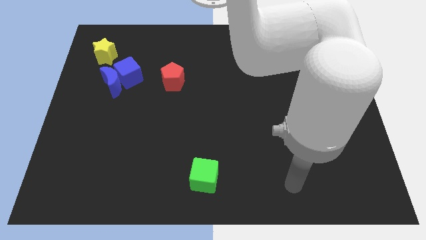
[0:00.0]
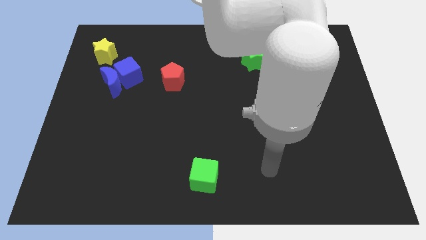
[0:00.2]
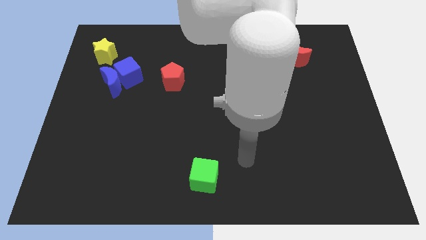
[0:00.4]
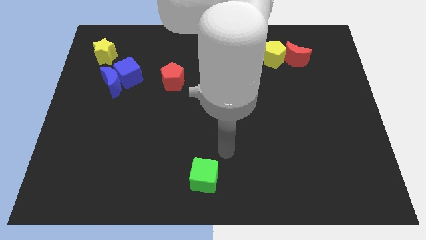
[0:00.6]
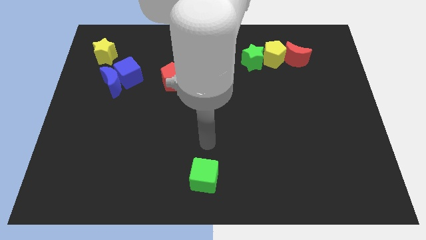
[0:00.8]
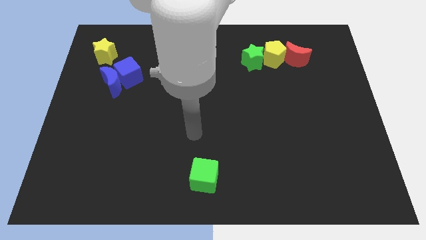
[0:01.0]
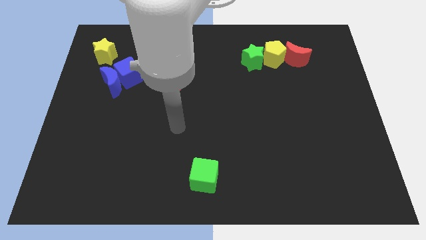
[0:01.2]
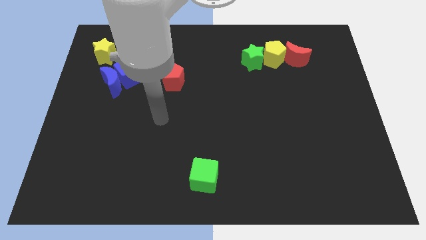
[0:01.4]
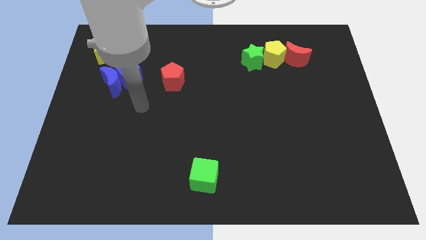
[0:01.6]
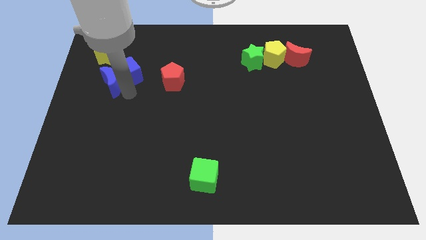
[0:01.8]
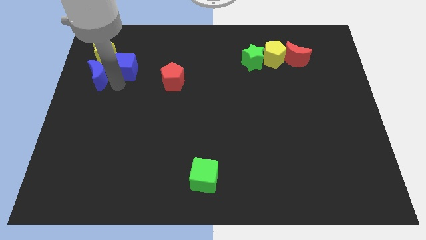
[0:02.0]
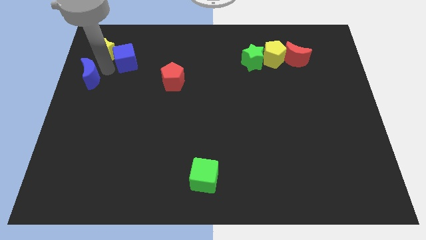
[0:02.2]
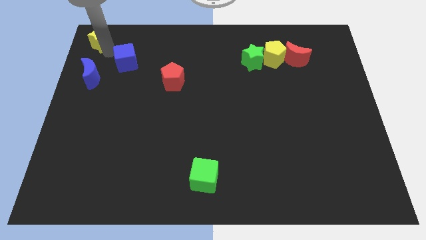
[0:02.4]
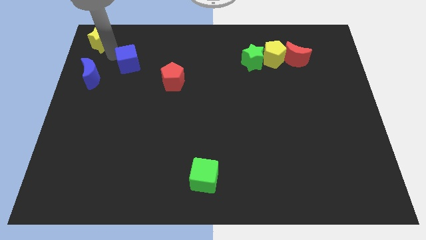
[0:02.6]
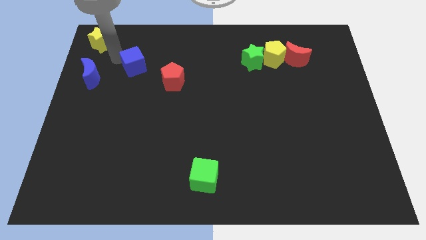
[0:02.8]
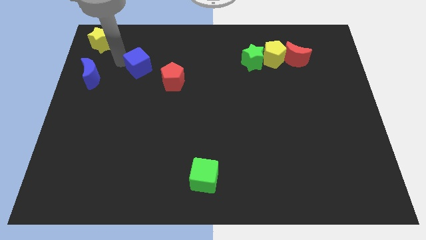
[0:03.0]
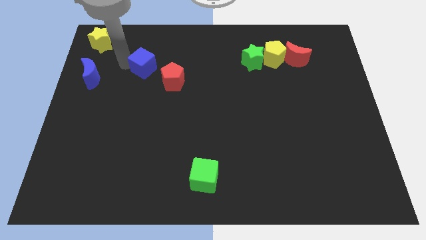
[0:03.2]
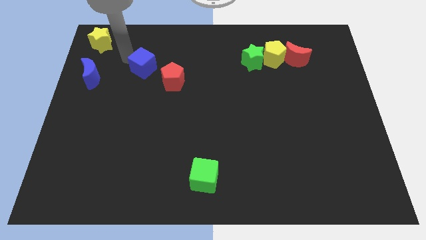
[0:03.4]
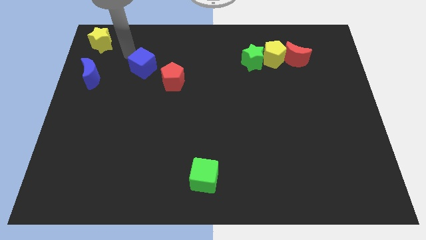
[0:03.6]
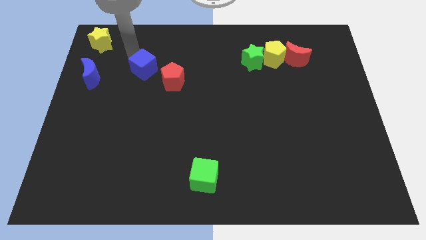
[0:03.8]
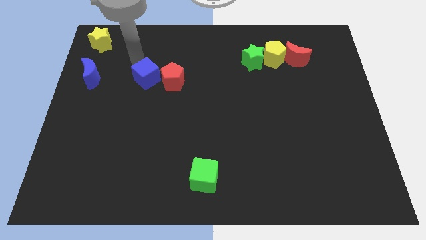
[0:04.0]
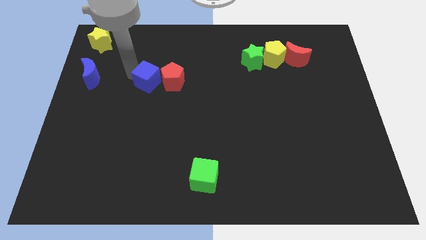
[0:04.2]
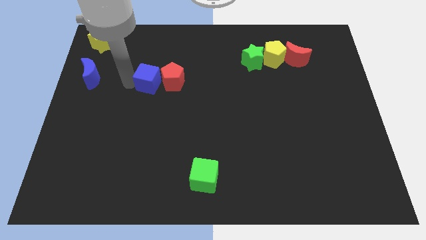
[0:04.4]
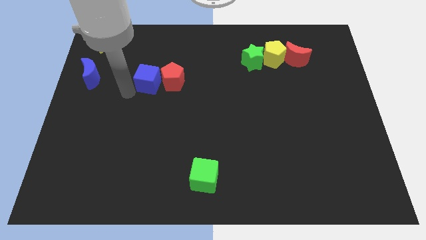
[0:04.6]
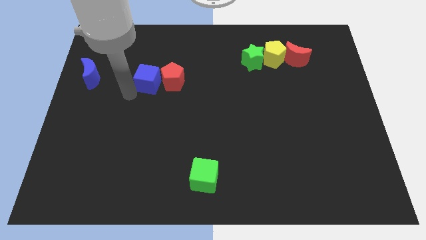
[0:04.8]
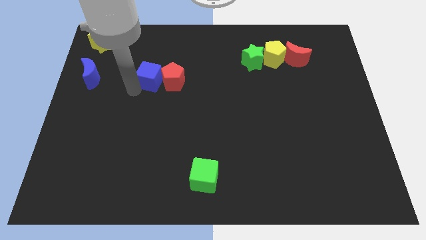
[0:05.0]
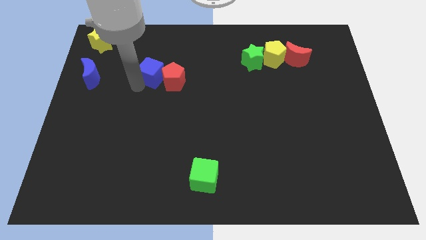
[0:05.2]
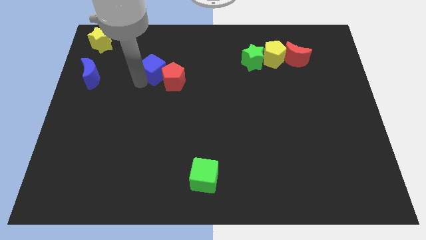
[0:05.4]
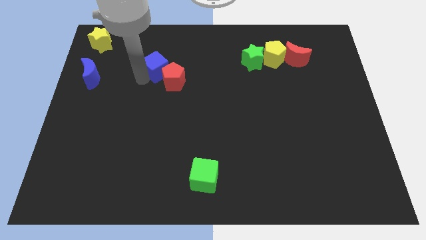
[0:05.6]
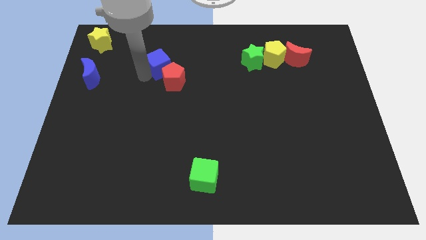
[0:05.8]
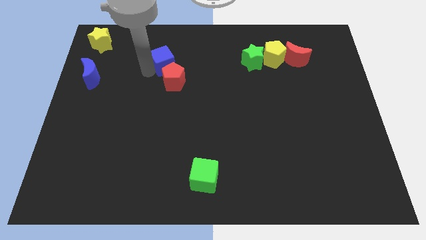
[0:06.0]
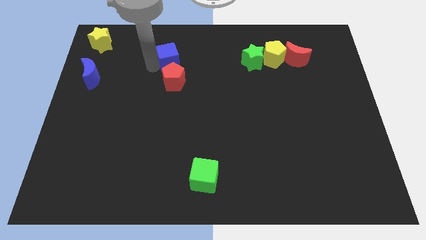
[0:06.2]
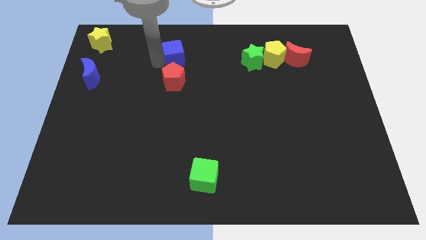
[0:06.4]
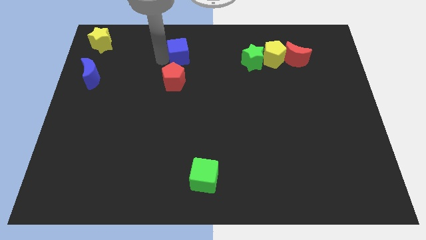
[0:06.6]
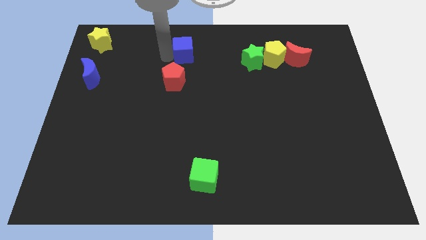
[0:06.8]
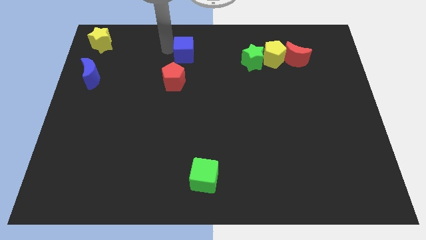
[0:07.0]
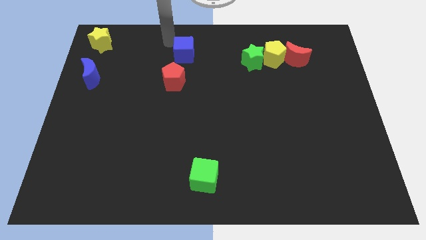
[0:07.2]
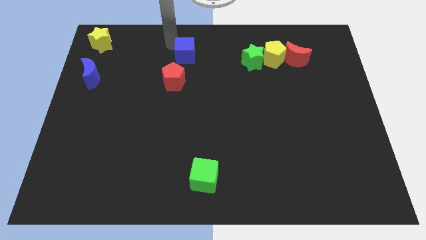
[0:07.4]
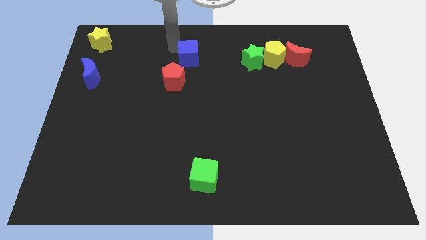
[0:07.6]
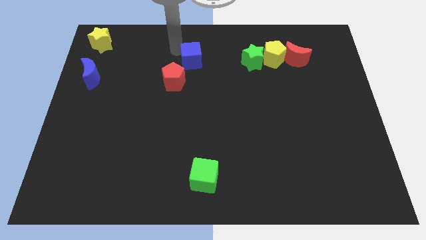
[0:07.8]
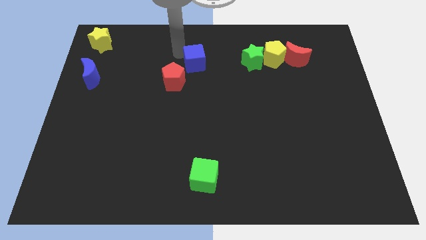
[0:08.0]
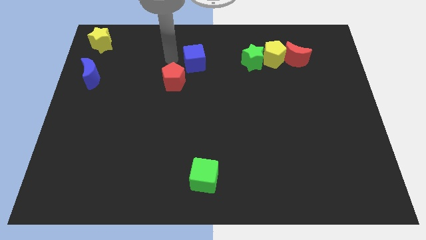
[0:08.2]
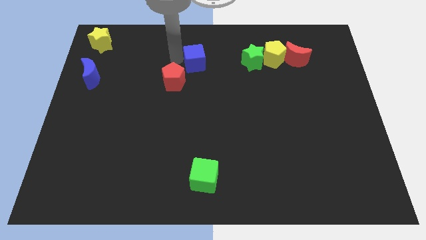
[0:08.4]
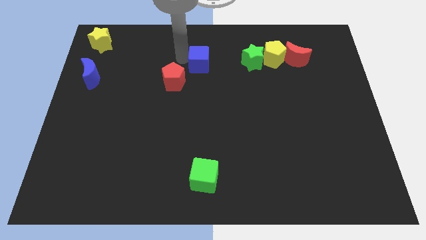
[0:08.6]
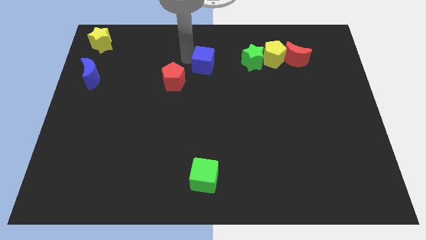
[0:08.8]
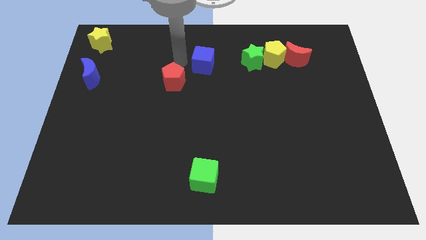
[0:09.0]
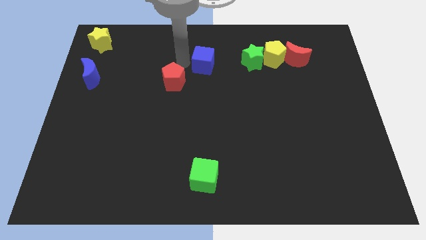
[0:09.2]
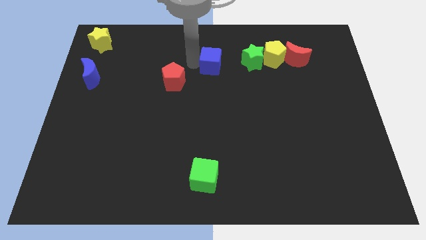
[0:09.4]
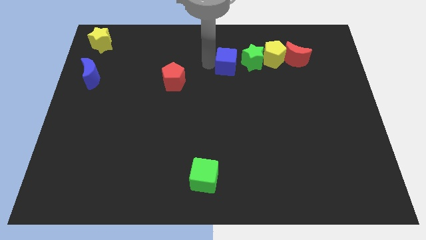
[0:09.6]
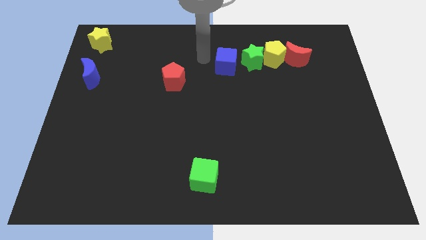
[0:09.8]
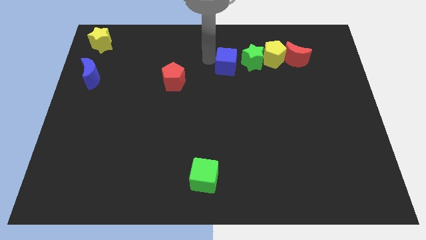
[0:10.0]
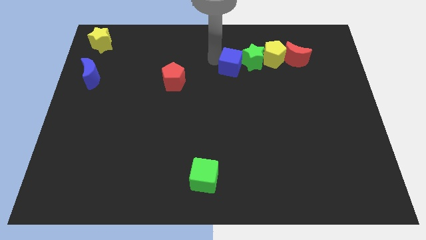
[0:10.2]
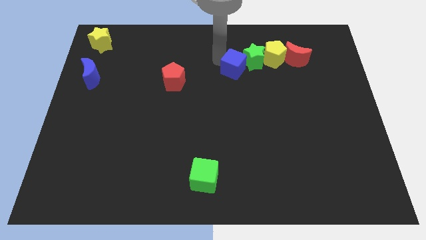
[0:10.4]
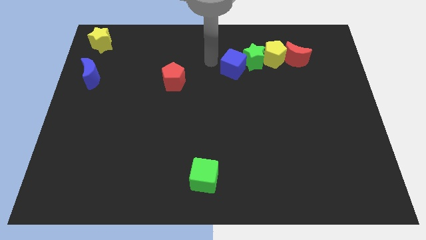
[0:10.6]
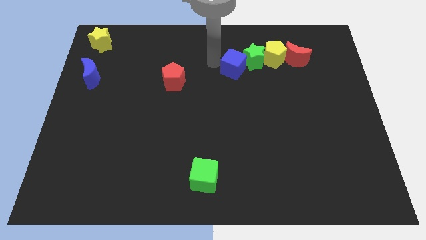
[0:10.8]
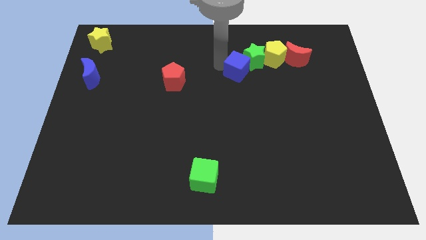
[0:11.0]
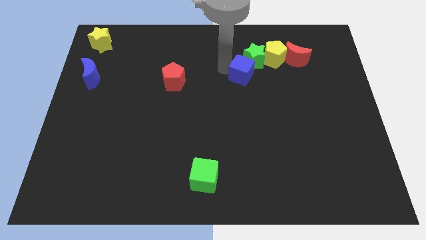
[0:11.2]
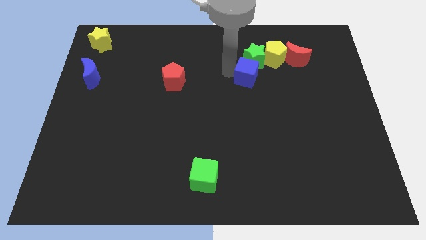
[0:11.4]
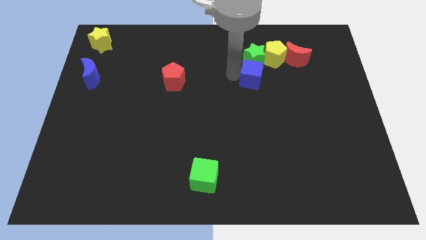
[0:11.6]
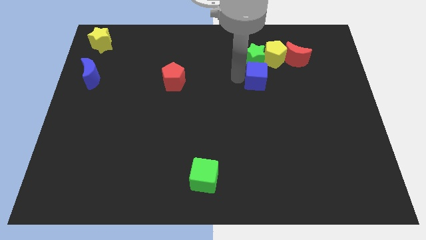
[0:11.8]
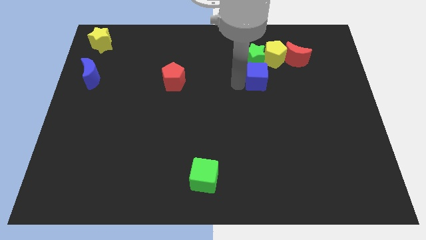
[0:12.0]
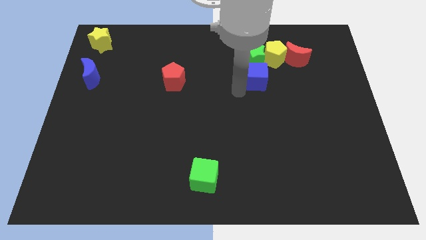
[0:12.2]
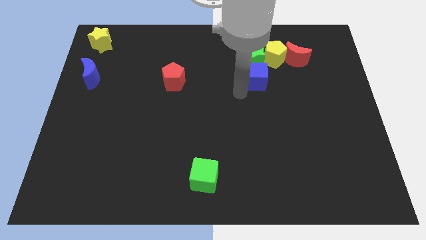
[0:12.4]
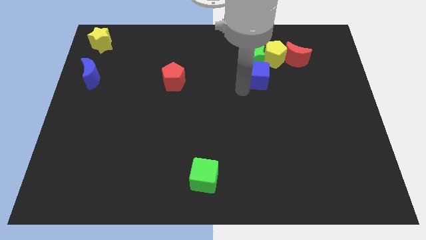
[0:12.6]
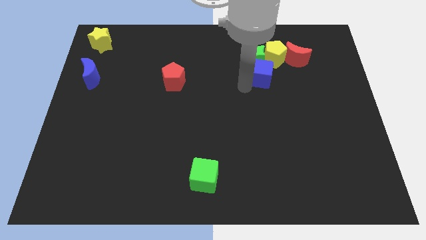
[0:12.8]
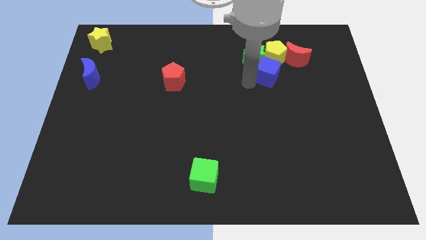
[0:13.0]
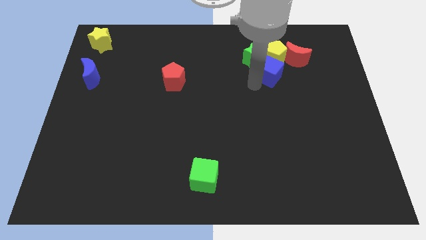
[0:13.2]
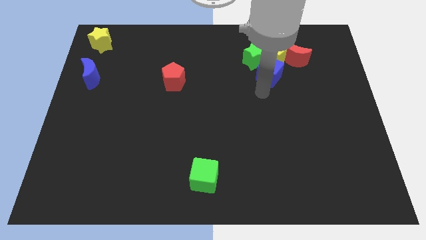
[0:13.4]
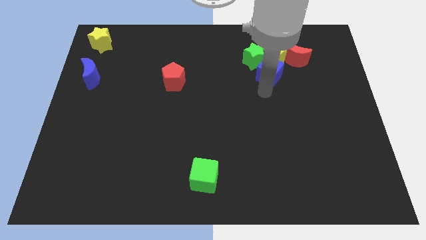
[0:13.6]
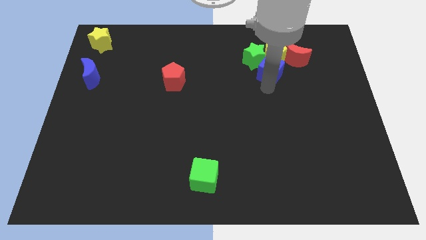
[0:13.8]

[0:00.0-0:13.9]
put the blue cube next to the yellow pentagon
